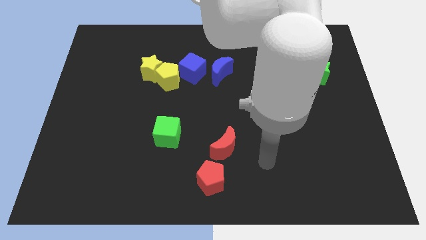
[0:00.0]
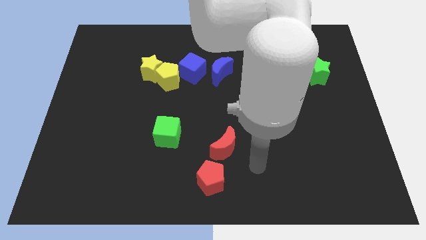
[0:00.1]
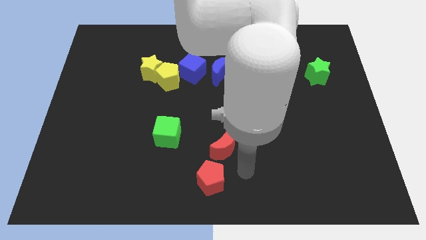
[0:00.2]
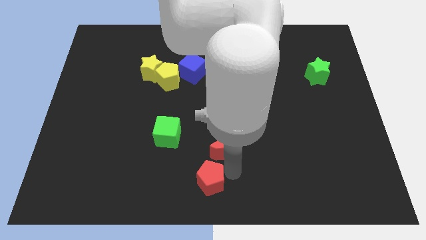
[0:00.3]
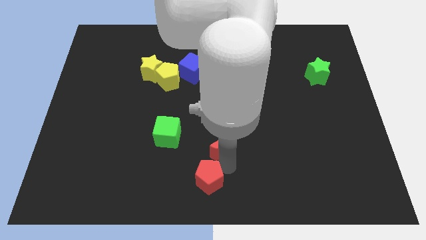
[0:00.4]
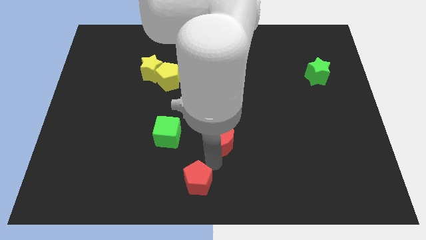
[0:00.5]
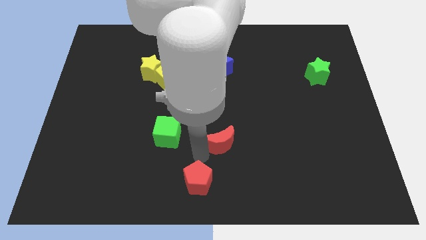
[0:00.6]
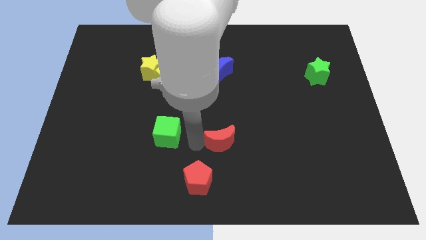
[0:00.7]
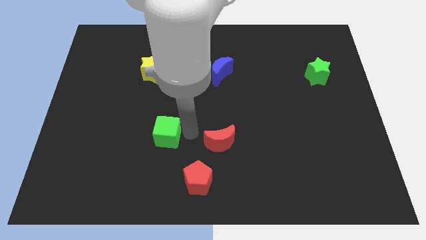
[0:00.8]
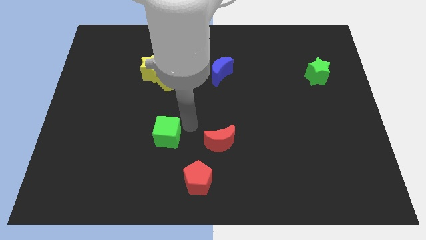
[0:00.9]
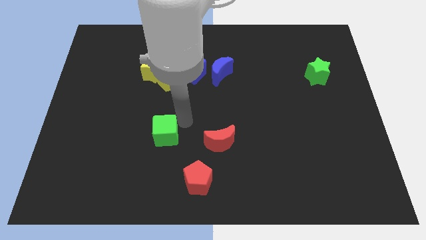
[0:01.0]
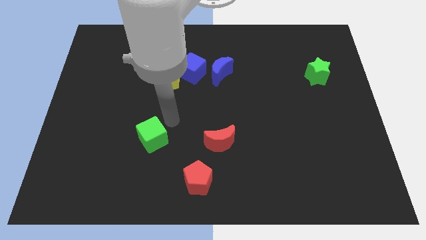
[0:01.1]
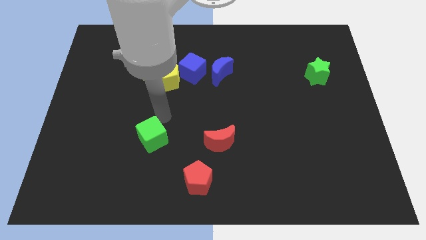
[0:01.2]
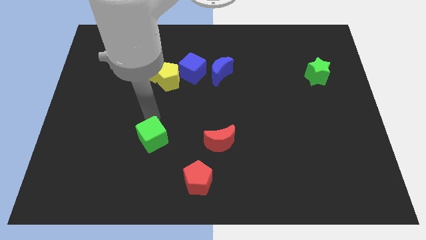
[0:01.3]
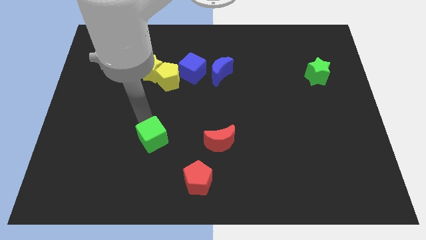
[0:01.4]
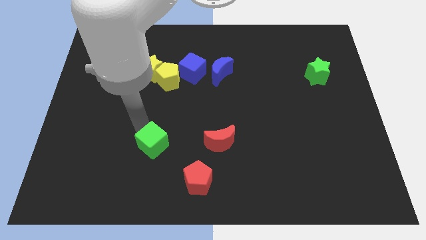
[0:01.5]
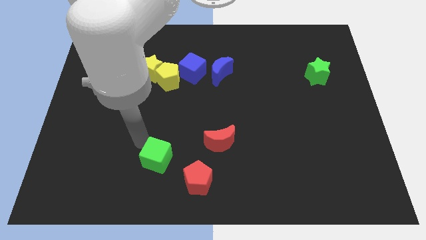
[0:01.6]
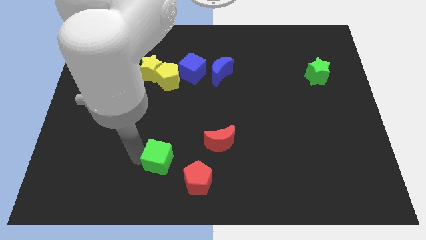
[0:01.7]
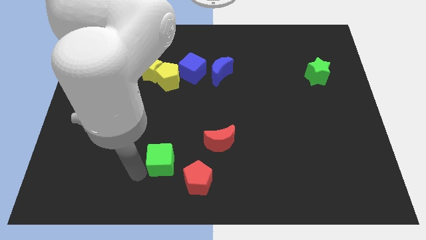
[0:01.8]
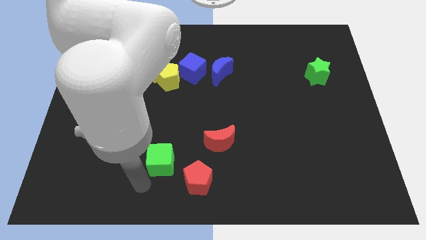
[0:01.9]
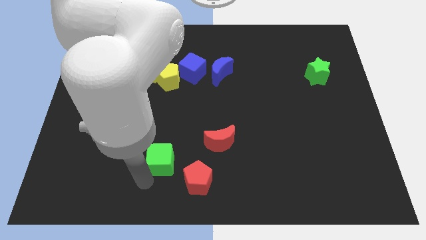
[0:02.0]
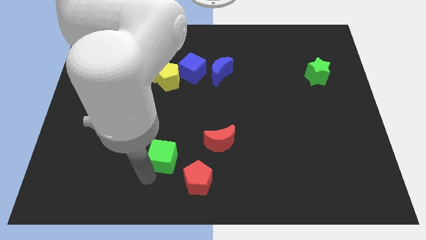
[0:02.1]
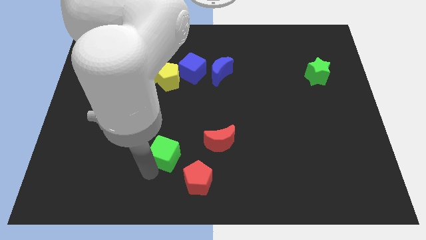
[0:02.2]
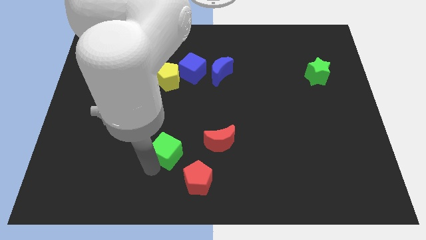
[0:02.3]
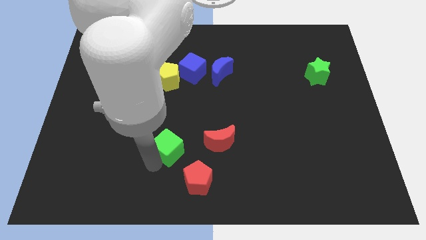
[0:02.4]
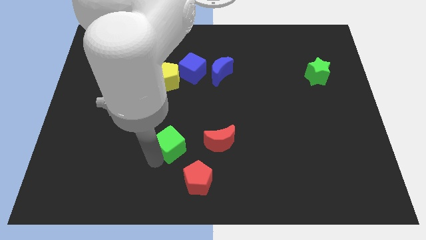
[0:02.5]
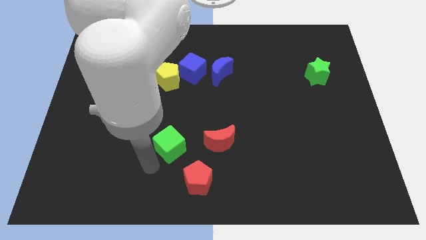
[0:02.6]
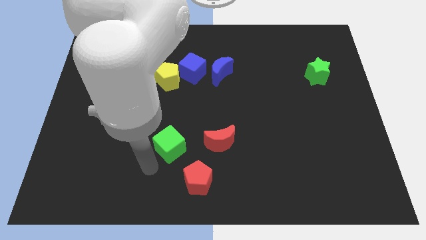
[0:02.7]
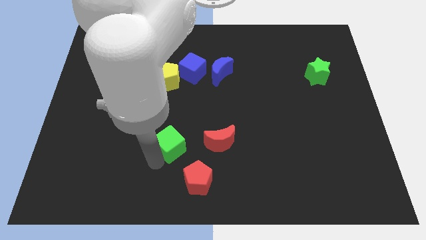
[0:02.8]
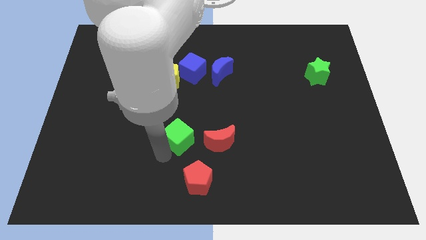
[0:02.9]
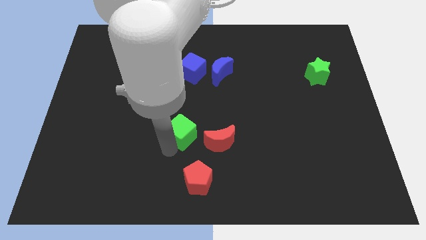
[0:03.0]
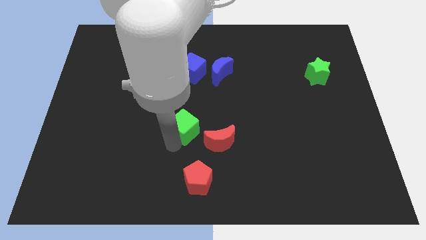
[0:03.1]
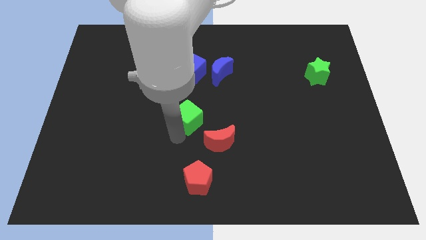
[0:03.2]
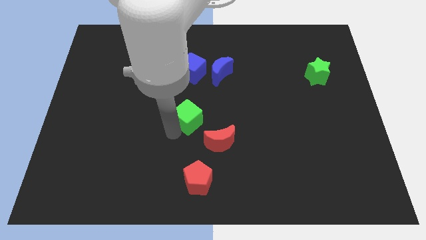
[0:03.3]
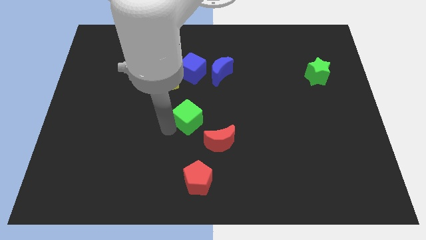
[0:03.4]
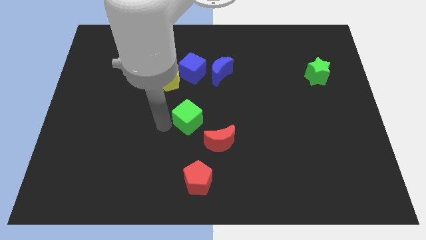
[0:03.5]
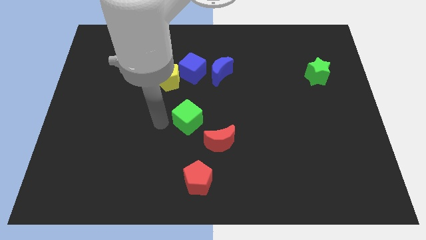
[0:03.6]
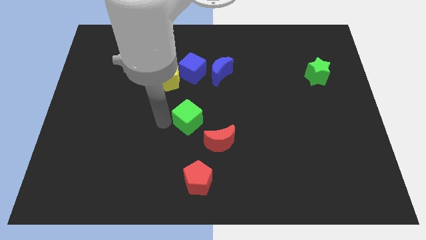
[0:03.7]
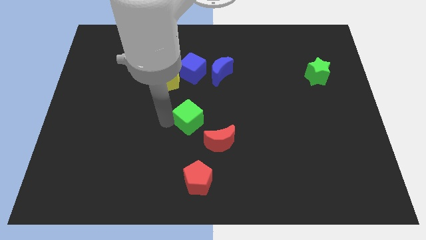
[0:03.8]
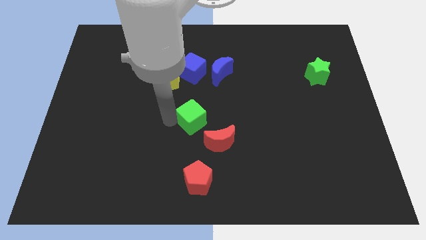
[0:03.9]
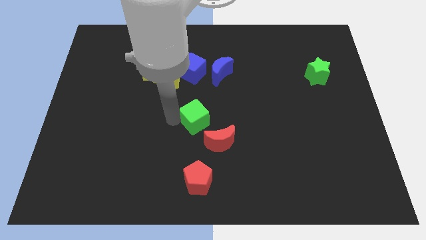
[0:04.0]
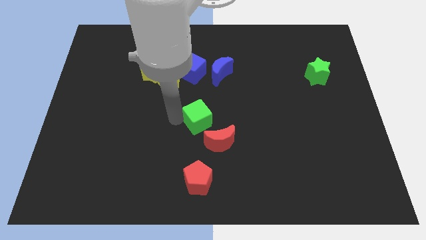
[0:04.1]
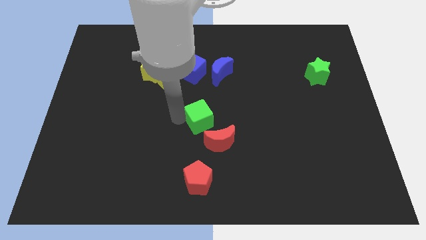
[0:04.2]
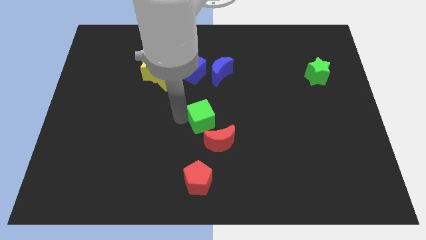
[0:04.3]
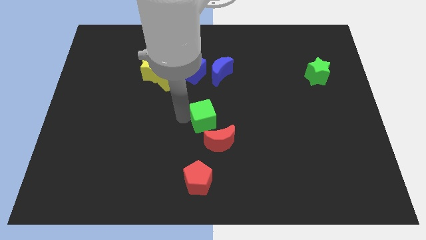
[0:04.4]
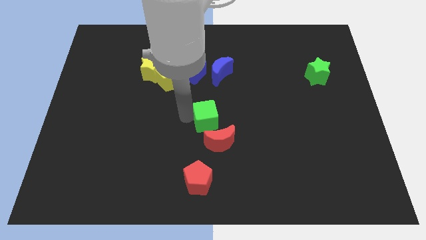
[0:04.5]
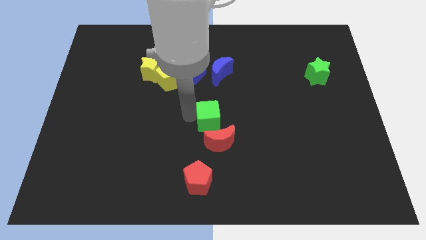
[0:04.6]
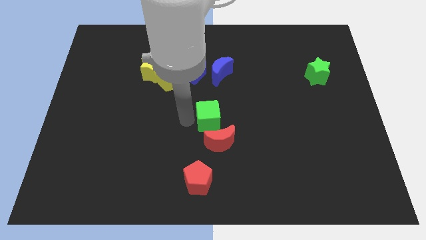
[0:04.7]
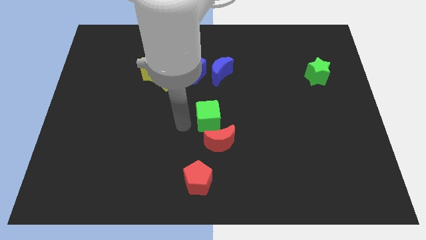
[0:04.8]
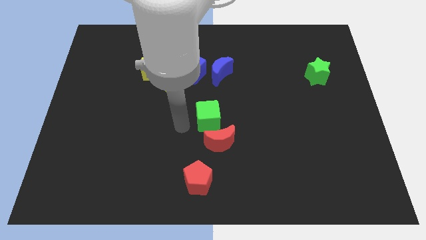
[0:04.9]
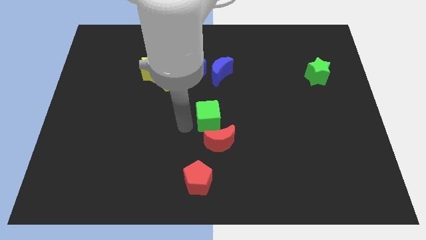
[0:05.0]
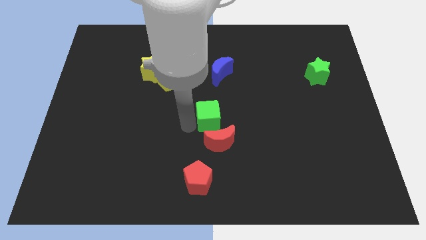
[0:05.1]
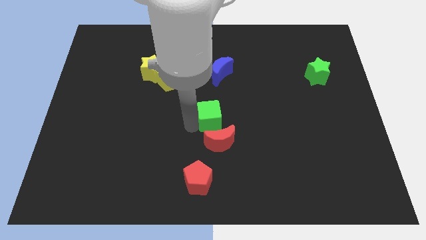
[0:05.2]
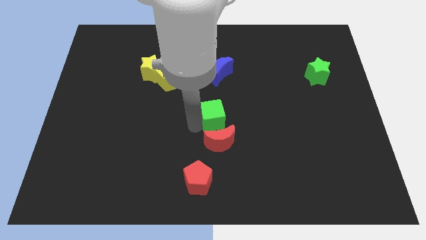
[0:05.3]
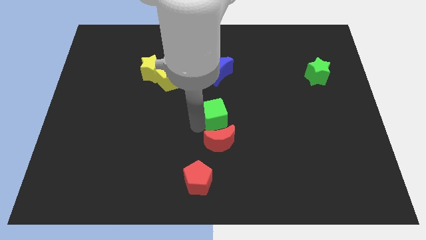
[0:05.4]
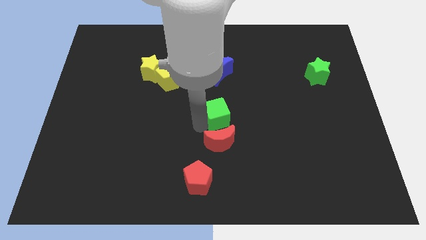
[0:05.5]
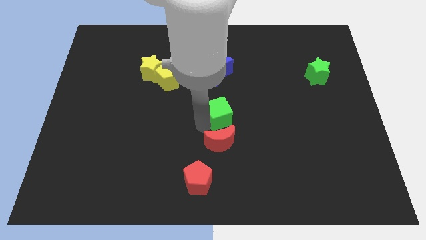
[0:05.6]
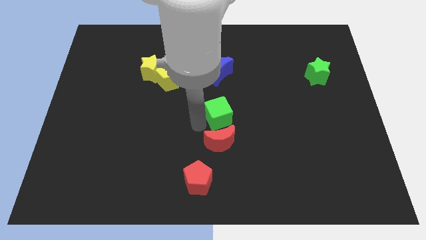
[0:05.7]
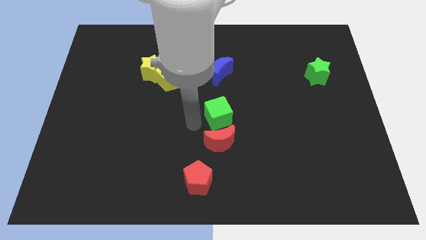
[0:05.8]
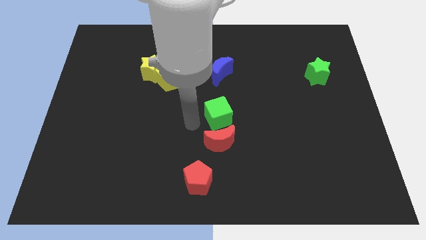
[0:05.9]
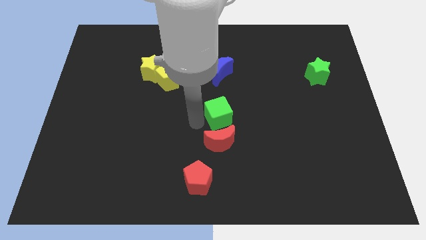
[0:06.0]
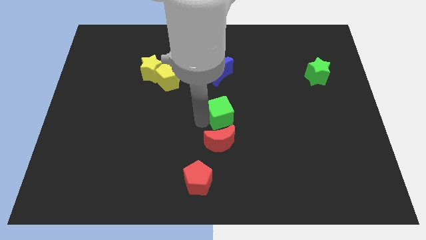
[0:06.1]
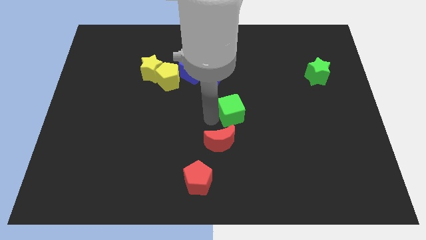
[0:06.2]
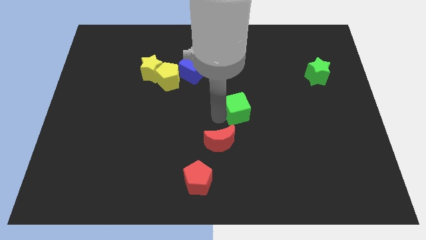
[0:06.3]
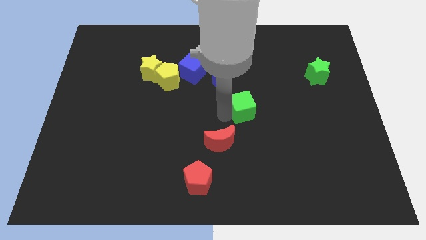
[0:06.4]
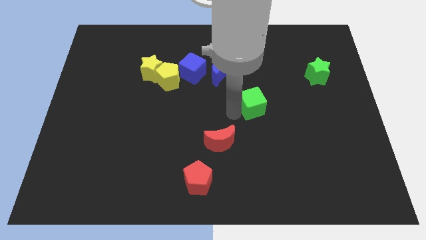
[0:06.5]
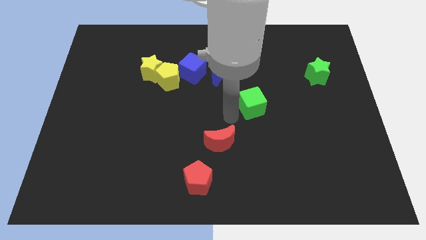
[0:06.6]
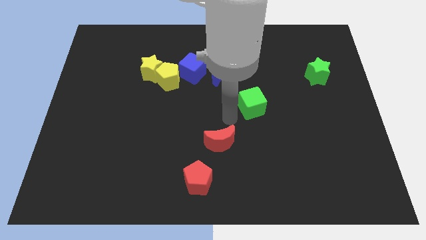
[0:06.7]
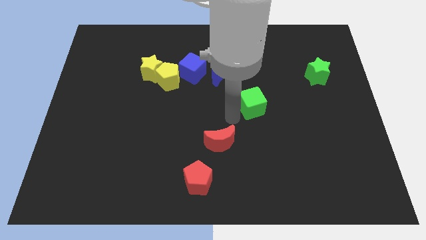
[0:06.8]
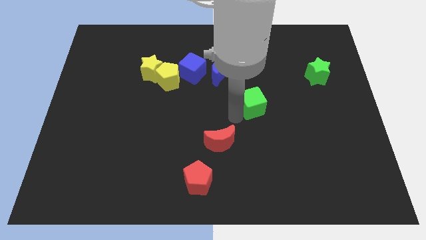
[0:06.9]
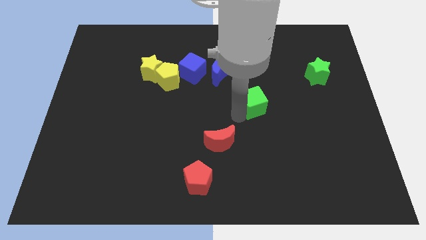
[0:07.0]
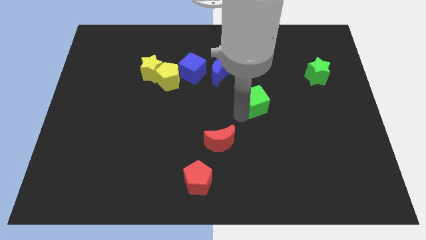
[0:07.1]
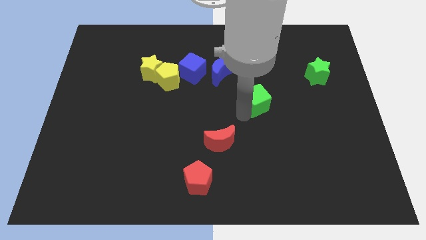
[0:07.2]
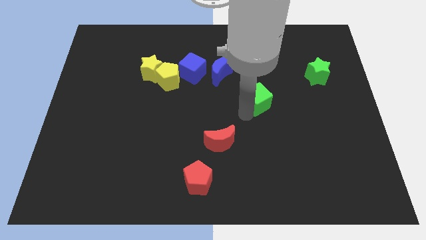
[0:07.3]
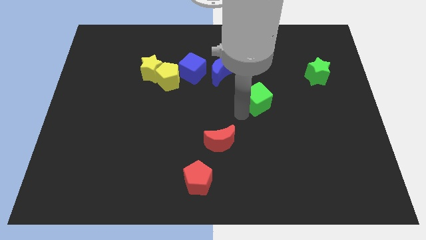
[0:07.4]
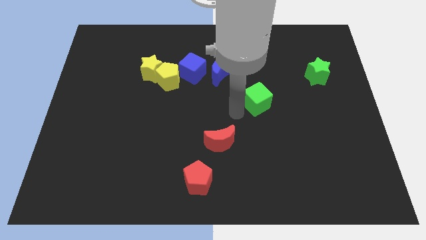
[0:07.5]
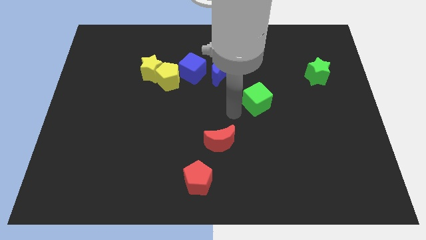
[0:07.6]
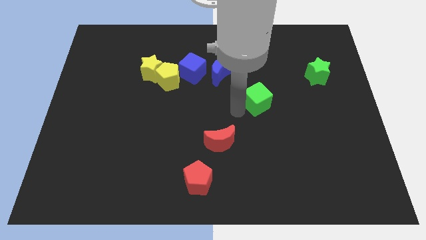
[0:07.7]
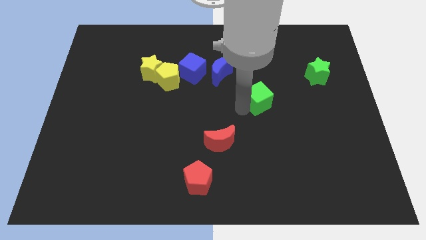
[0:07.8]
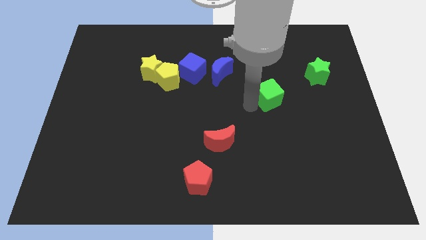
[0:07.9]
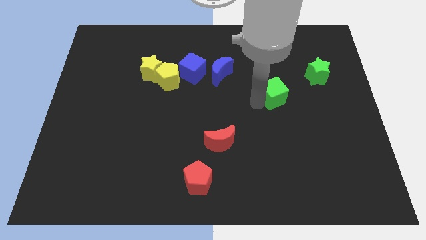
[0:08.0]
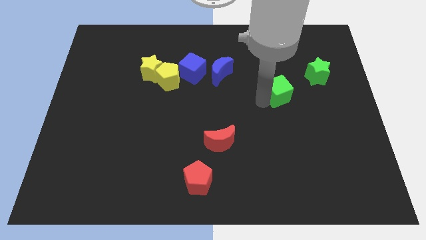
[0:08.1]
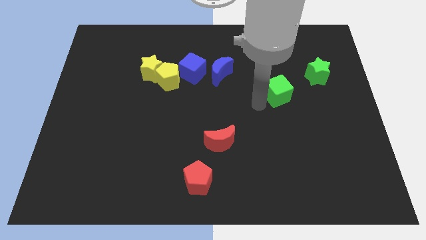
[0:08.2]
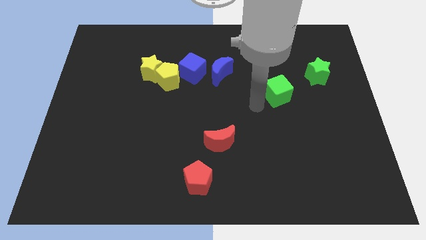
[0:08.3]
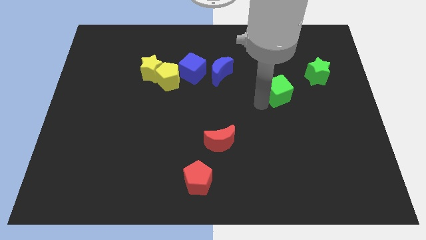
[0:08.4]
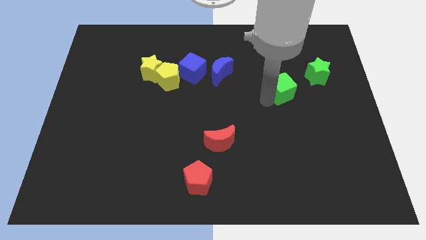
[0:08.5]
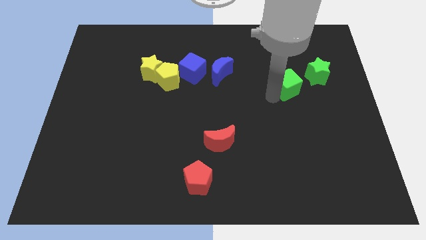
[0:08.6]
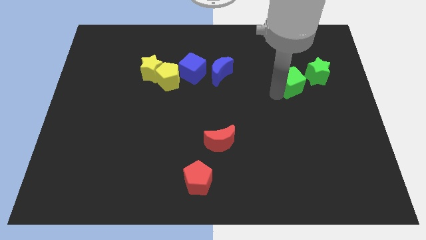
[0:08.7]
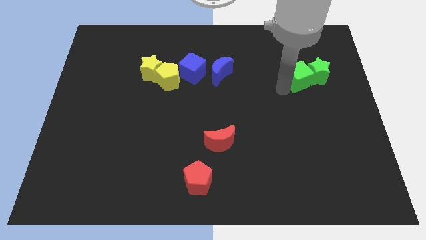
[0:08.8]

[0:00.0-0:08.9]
push the green cube next to the green star
